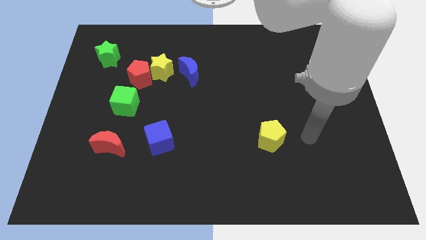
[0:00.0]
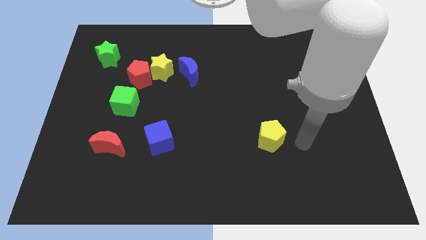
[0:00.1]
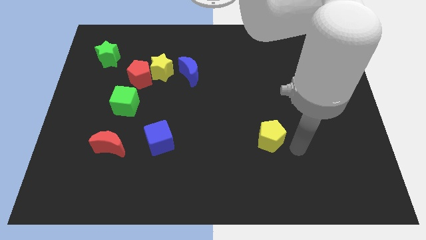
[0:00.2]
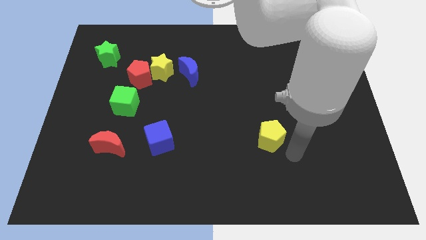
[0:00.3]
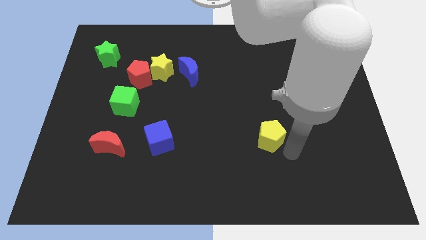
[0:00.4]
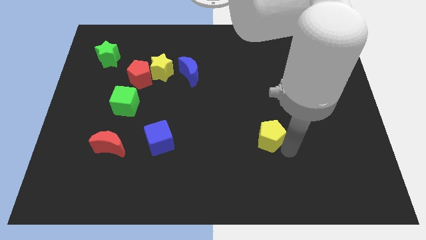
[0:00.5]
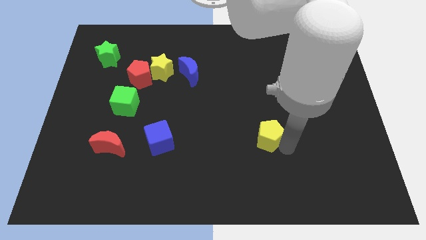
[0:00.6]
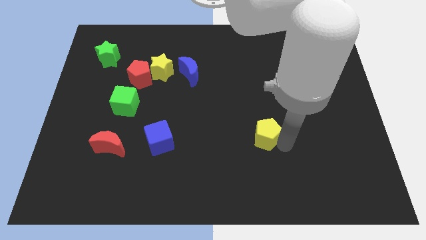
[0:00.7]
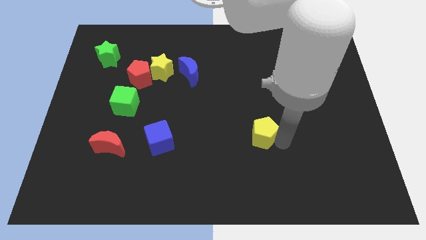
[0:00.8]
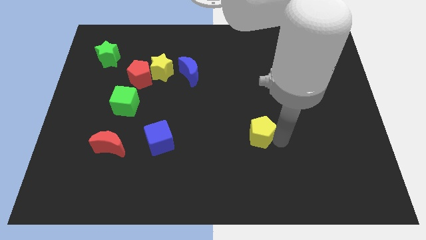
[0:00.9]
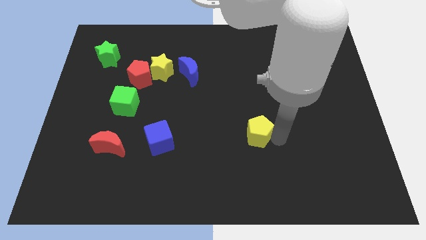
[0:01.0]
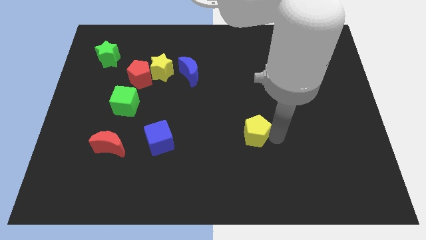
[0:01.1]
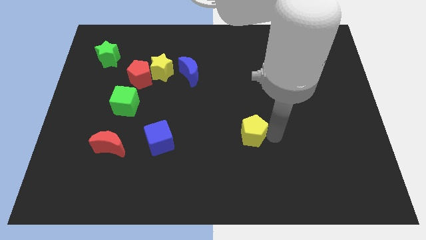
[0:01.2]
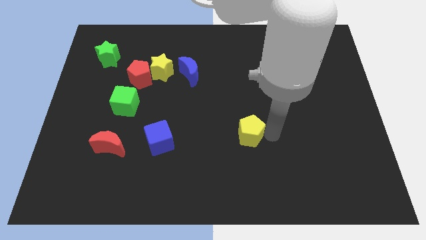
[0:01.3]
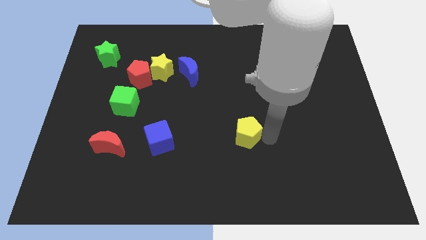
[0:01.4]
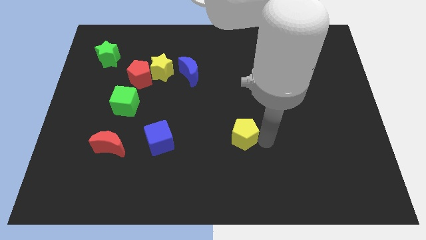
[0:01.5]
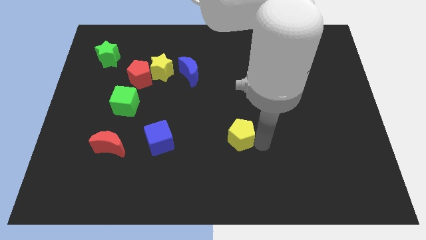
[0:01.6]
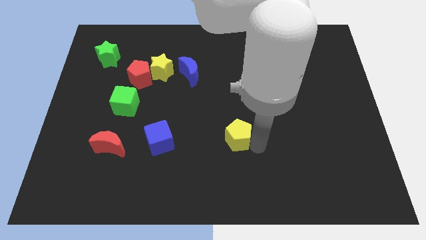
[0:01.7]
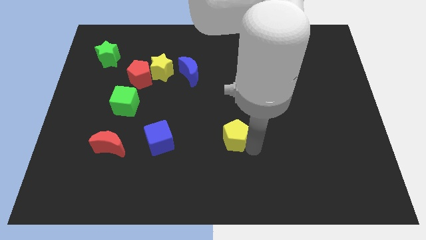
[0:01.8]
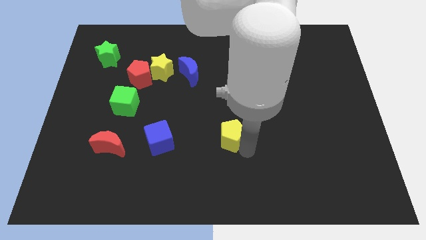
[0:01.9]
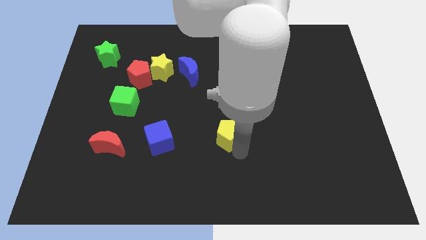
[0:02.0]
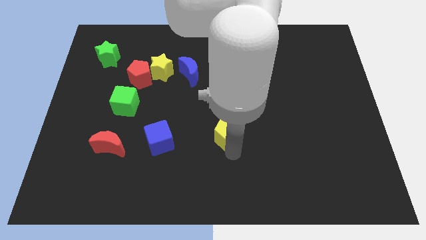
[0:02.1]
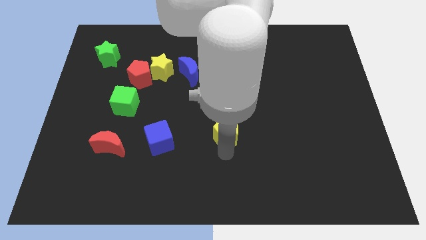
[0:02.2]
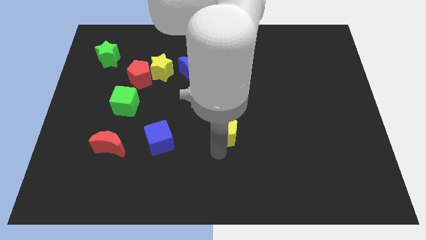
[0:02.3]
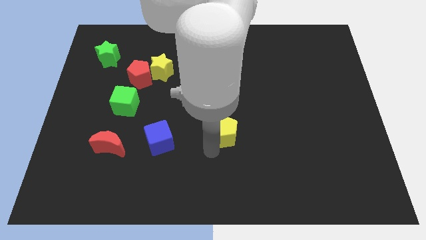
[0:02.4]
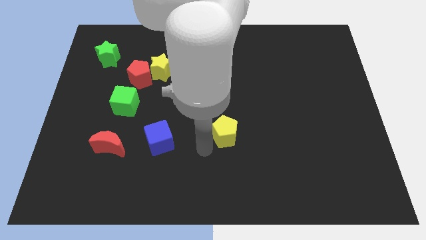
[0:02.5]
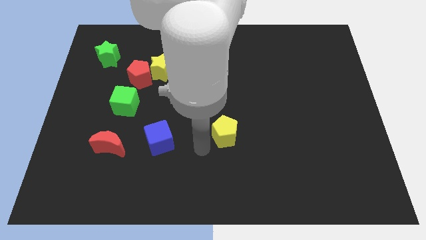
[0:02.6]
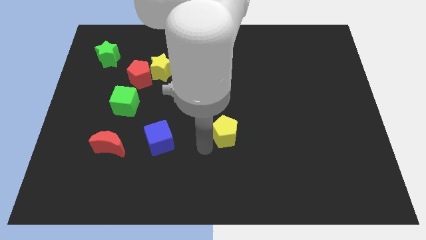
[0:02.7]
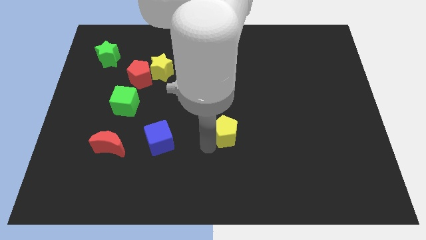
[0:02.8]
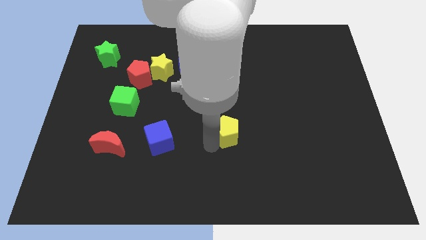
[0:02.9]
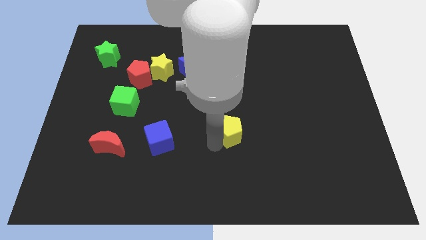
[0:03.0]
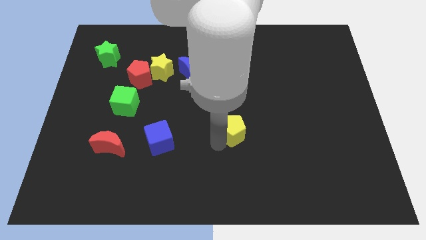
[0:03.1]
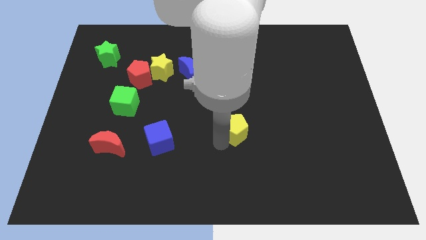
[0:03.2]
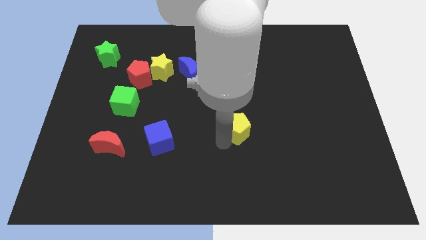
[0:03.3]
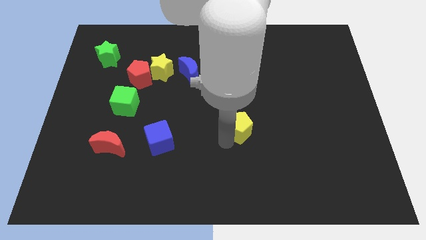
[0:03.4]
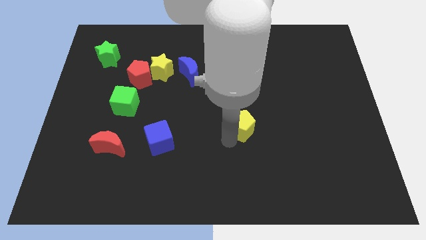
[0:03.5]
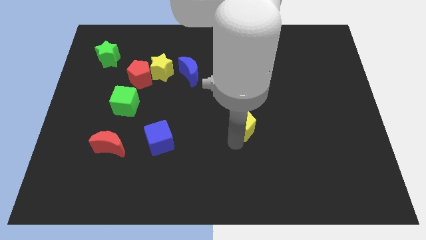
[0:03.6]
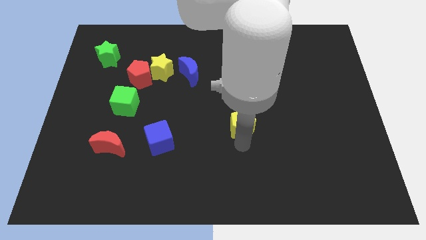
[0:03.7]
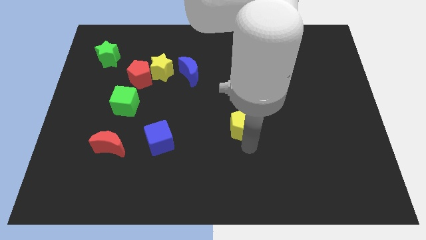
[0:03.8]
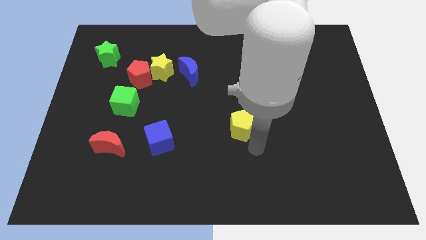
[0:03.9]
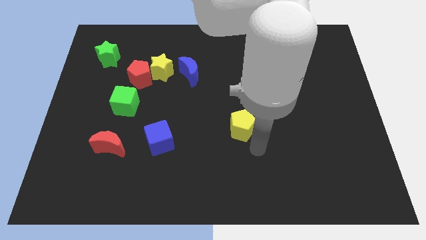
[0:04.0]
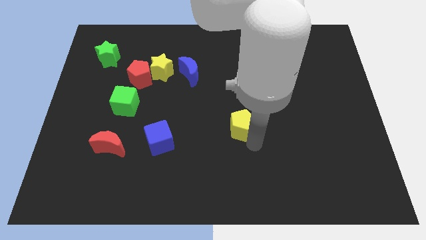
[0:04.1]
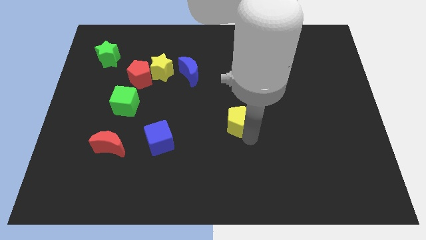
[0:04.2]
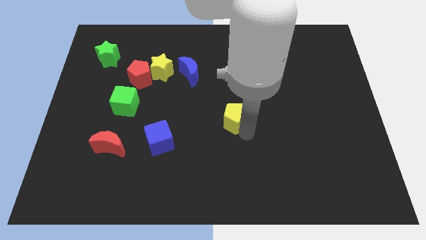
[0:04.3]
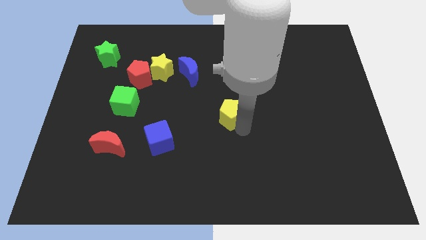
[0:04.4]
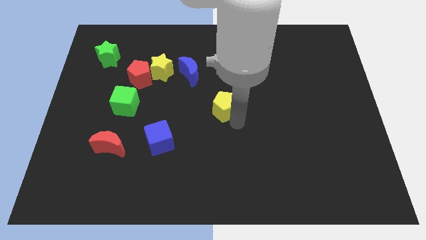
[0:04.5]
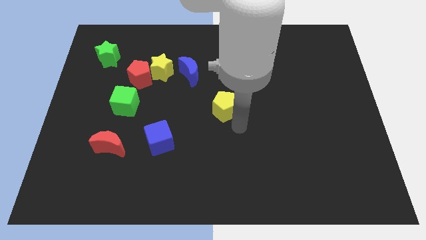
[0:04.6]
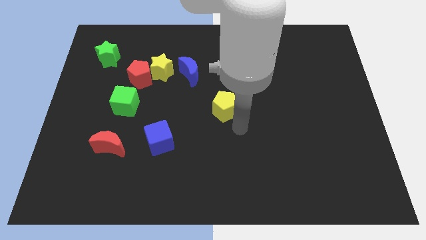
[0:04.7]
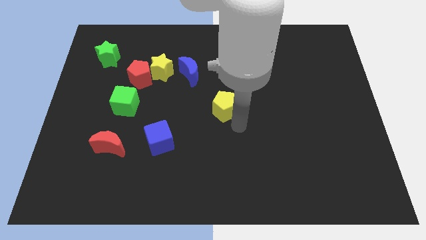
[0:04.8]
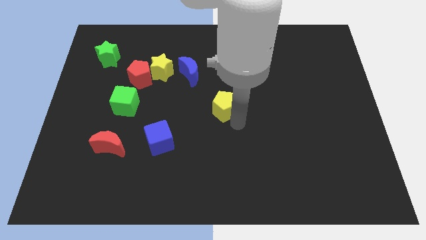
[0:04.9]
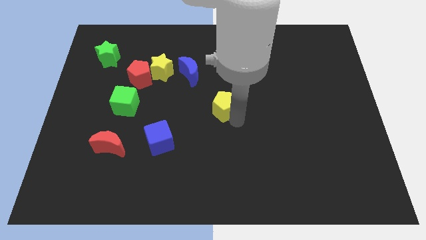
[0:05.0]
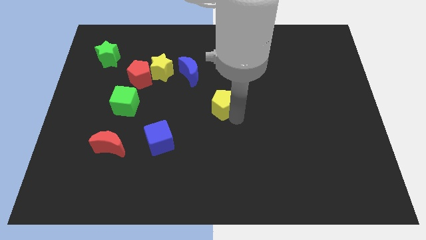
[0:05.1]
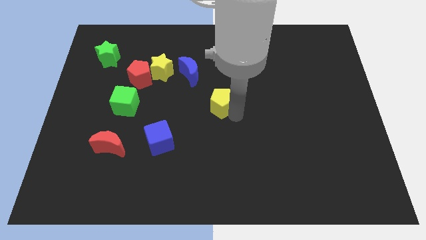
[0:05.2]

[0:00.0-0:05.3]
slide the yellow pentagon to the bottom right of the blue moon

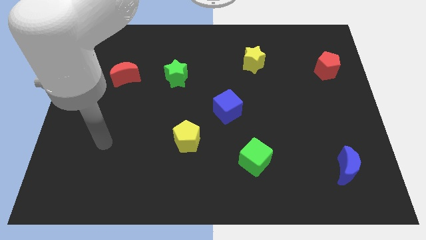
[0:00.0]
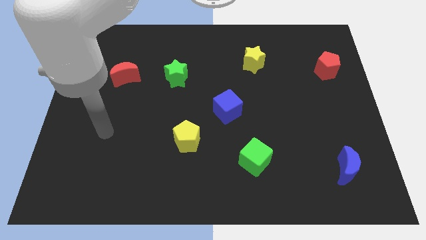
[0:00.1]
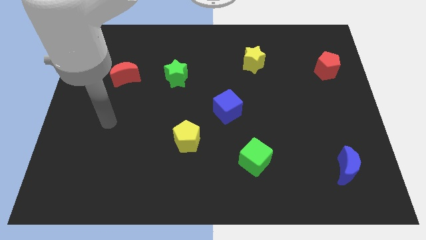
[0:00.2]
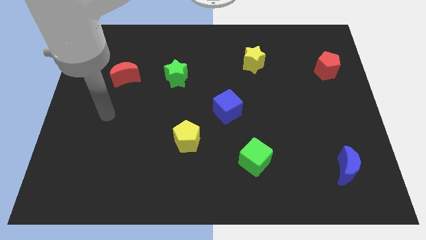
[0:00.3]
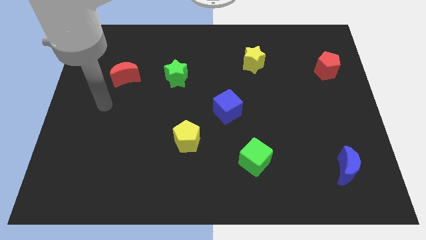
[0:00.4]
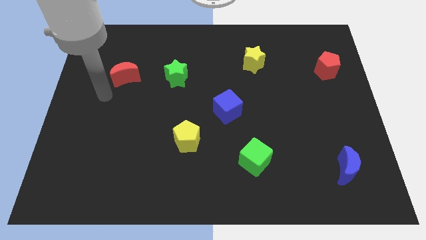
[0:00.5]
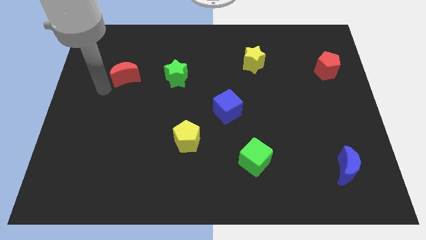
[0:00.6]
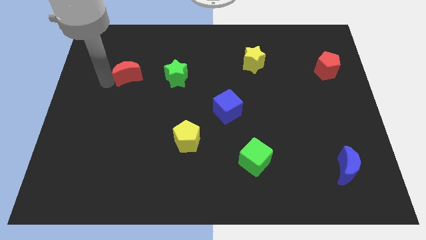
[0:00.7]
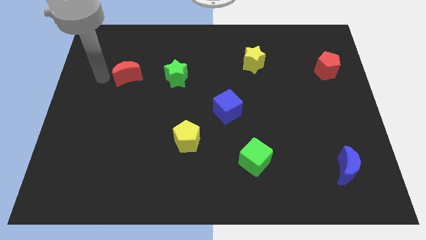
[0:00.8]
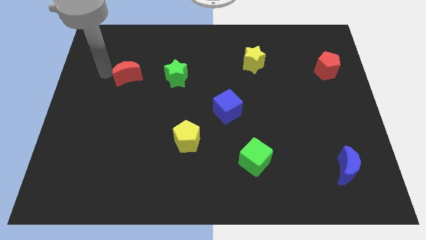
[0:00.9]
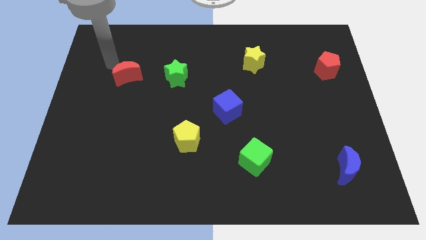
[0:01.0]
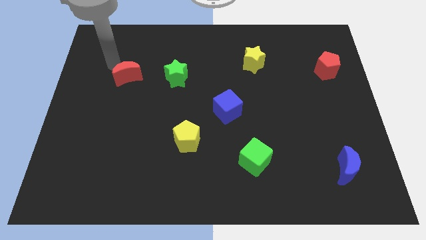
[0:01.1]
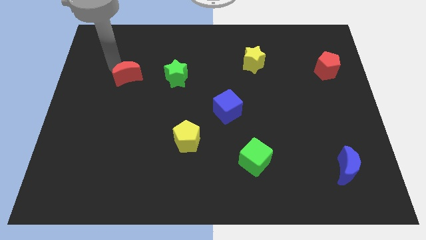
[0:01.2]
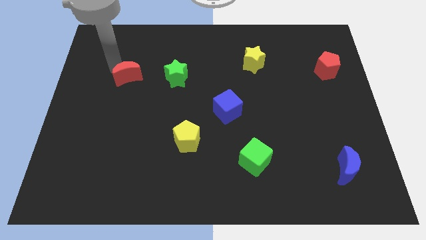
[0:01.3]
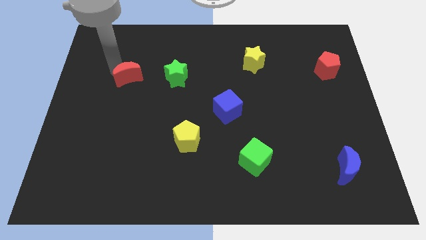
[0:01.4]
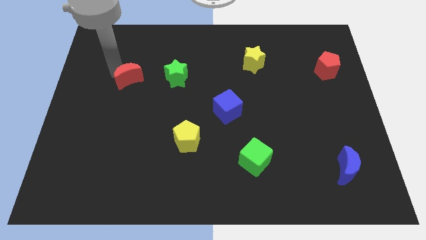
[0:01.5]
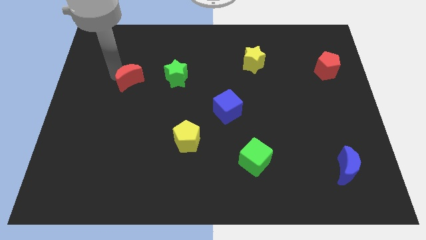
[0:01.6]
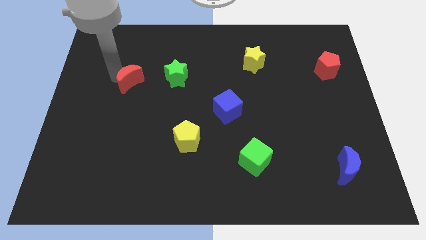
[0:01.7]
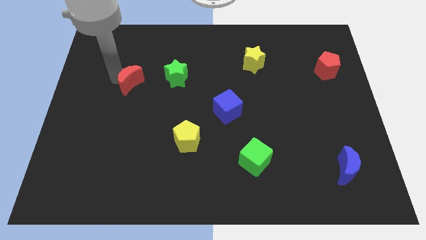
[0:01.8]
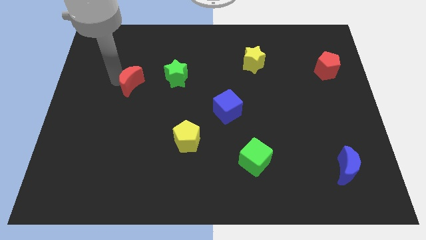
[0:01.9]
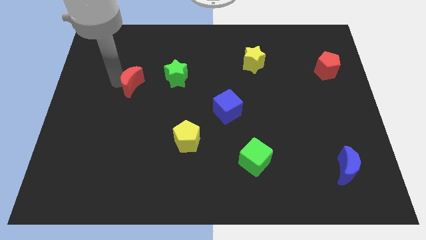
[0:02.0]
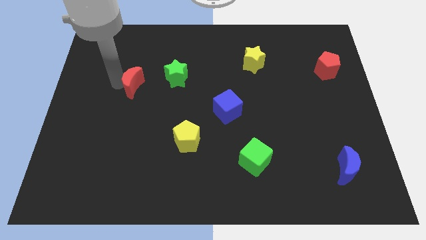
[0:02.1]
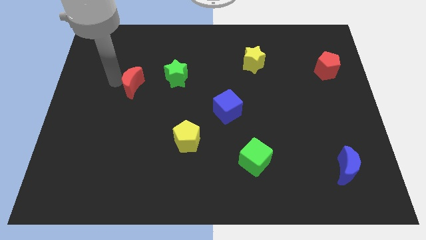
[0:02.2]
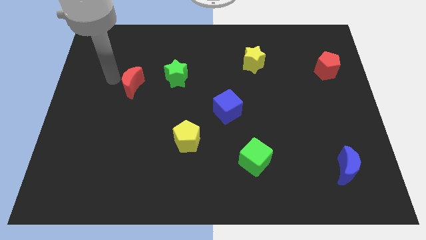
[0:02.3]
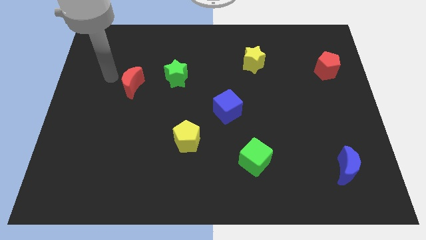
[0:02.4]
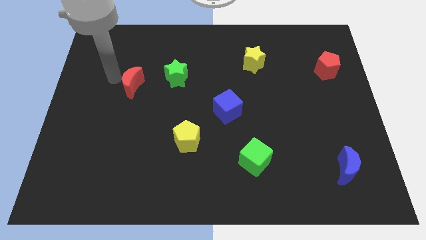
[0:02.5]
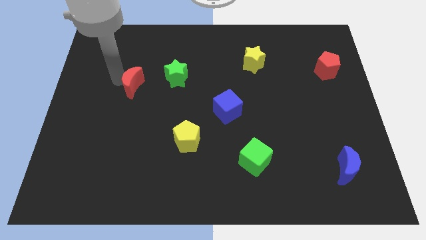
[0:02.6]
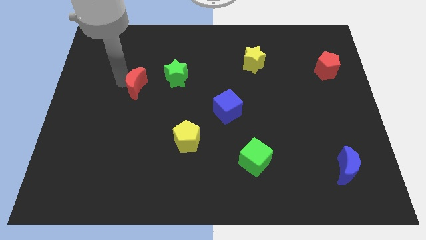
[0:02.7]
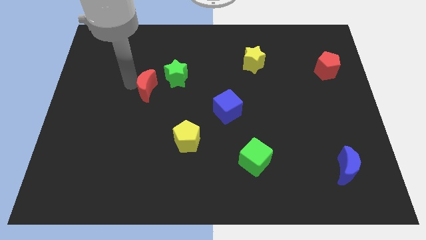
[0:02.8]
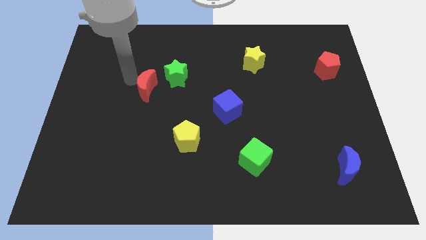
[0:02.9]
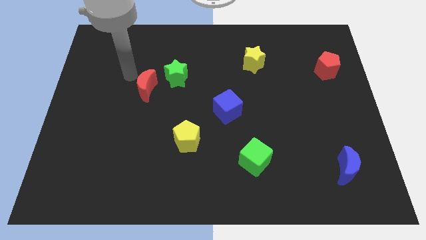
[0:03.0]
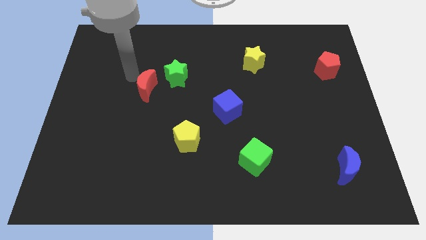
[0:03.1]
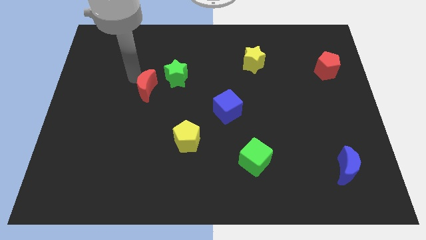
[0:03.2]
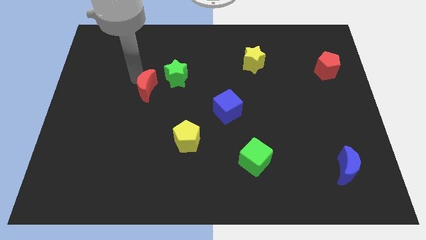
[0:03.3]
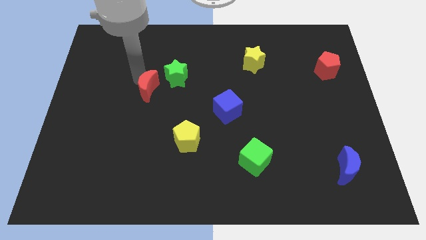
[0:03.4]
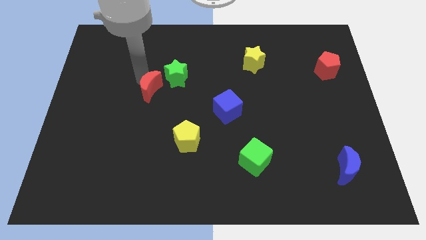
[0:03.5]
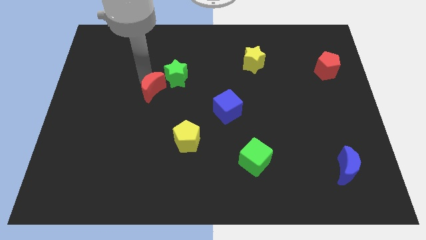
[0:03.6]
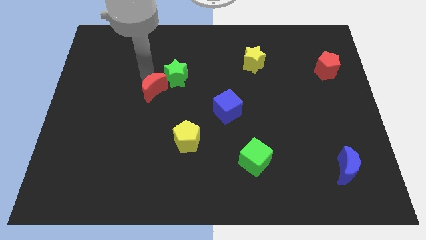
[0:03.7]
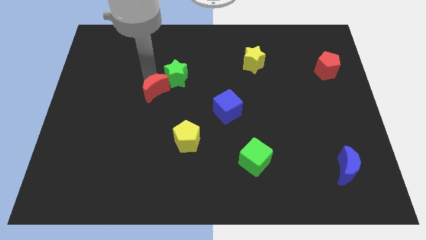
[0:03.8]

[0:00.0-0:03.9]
slide the red moon below the green star
